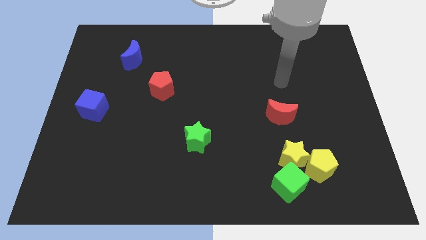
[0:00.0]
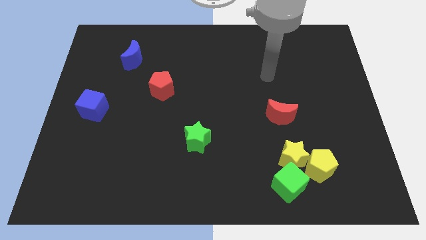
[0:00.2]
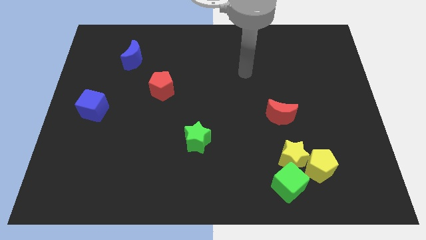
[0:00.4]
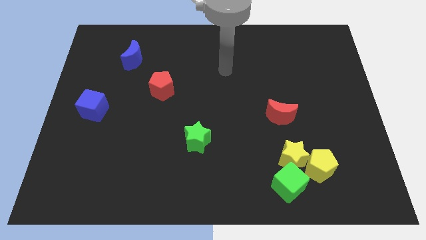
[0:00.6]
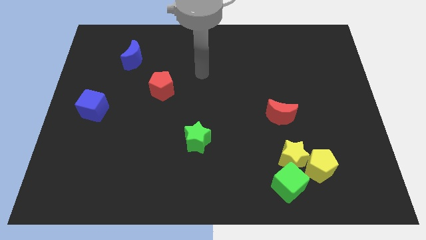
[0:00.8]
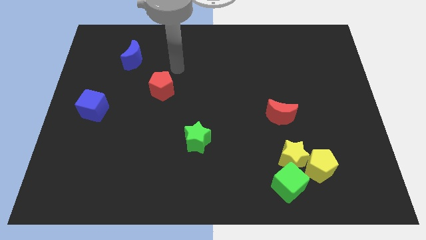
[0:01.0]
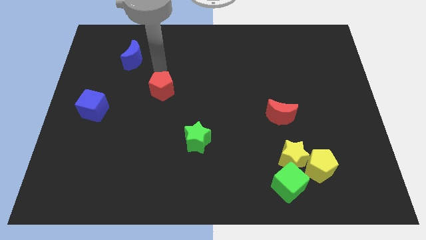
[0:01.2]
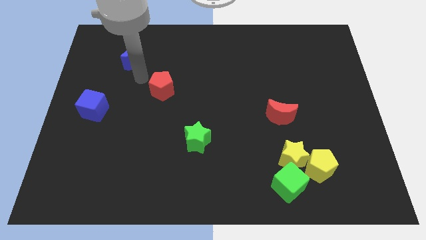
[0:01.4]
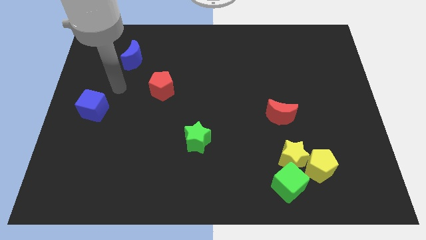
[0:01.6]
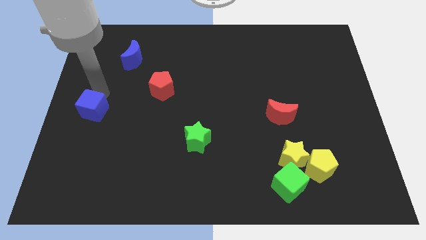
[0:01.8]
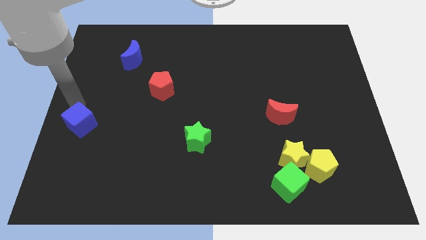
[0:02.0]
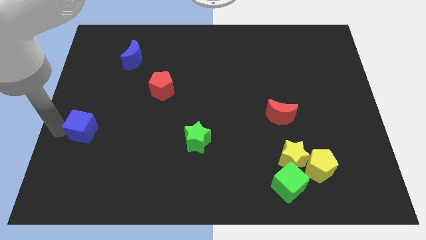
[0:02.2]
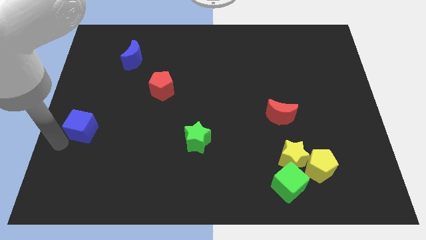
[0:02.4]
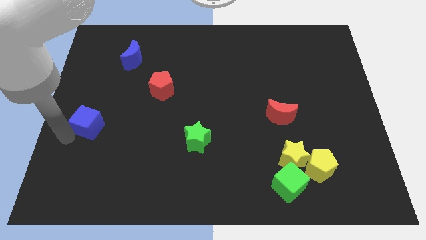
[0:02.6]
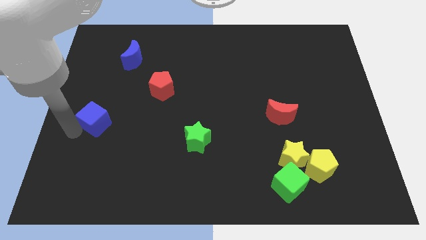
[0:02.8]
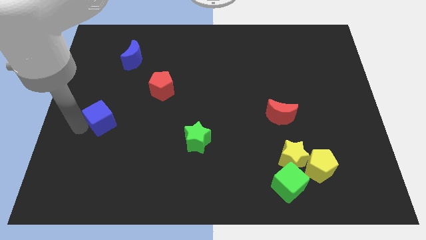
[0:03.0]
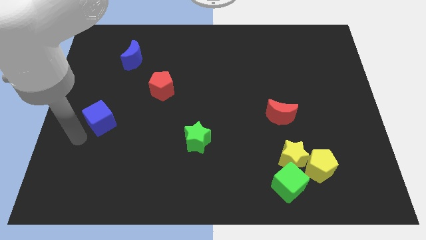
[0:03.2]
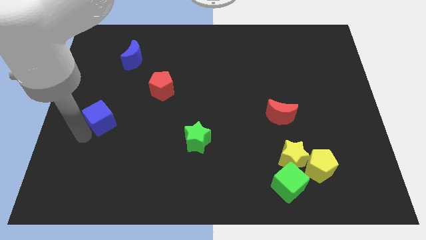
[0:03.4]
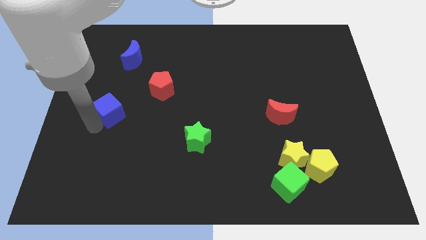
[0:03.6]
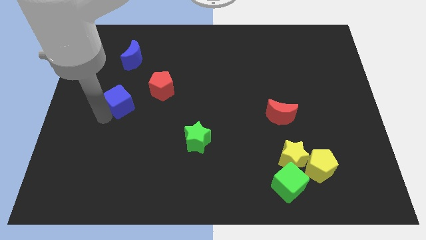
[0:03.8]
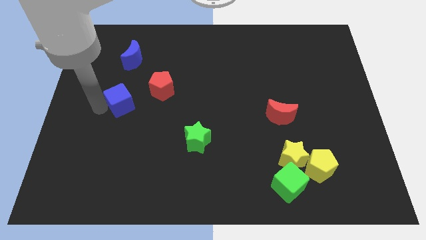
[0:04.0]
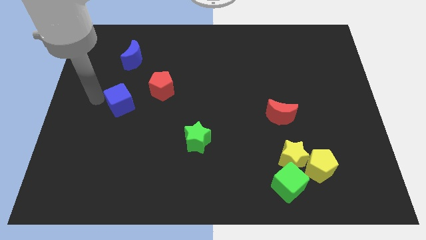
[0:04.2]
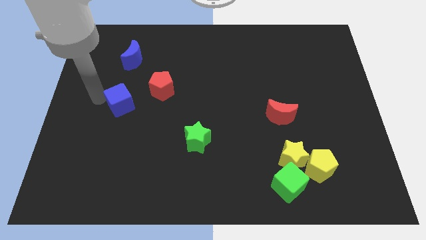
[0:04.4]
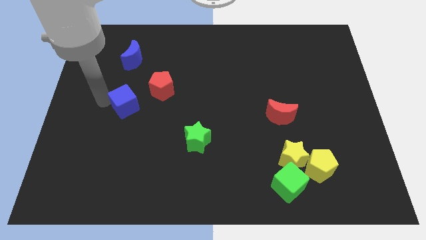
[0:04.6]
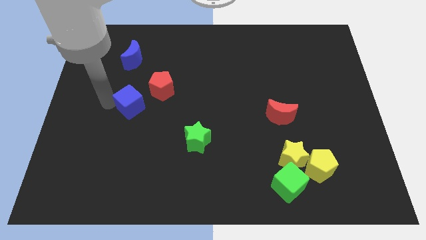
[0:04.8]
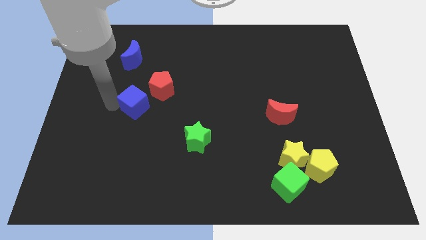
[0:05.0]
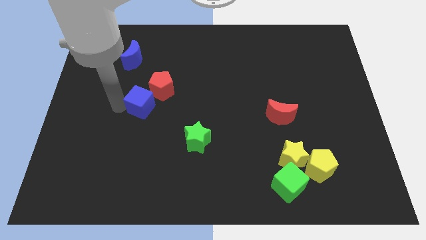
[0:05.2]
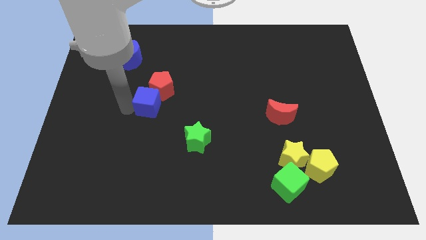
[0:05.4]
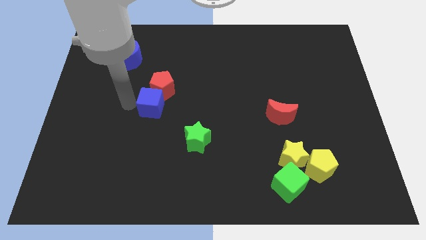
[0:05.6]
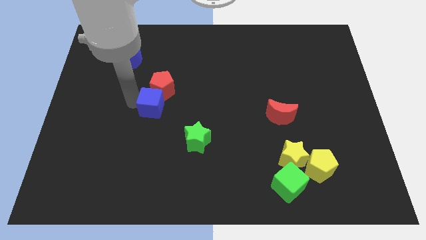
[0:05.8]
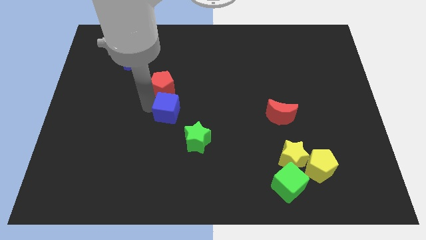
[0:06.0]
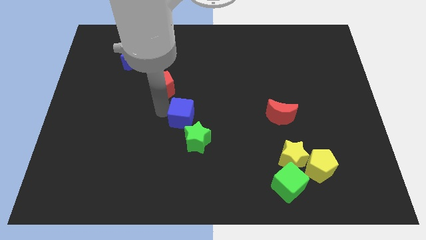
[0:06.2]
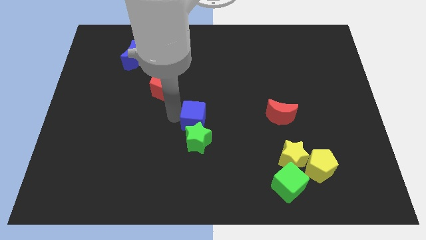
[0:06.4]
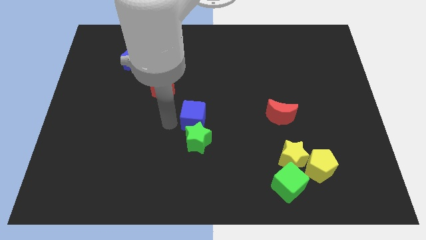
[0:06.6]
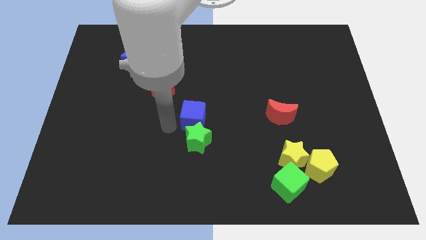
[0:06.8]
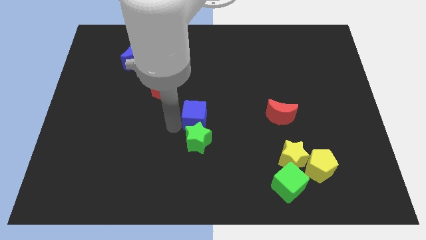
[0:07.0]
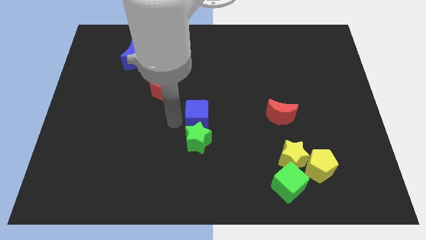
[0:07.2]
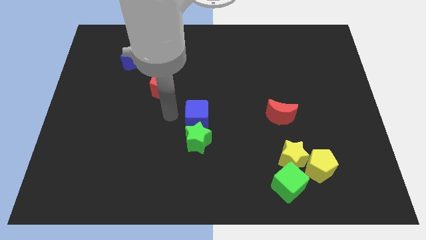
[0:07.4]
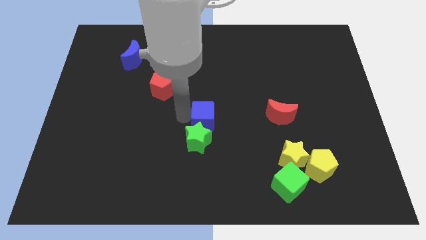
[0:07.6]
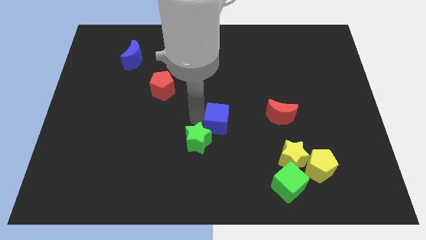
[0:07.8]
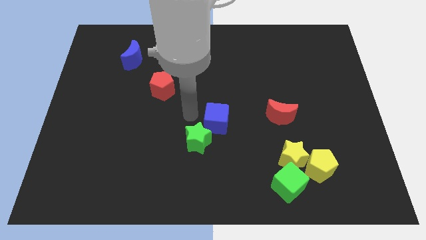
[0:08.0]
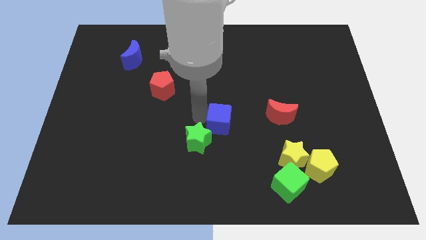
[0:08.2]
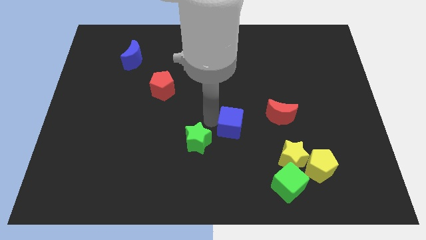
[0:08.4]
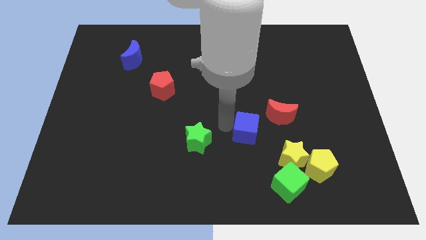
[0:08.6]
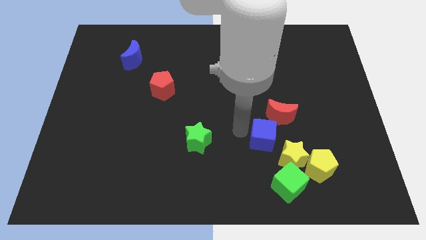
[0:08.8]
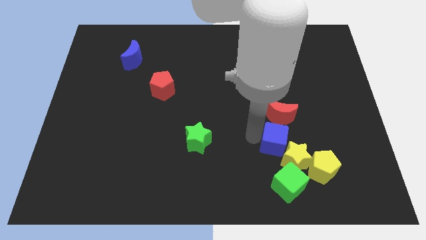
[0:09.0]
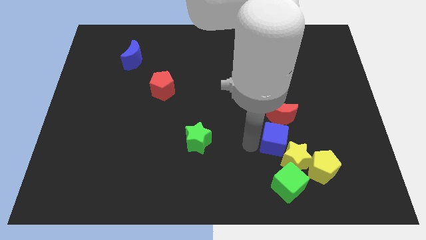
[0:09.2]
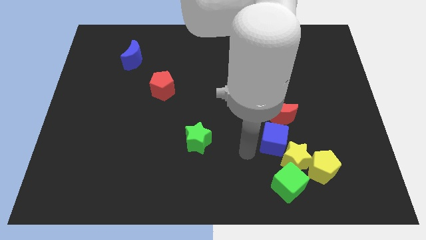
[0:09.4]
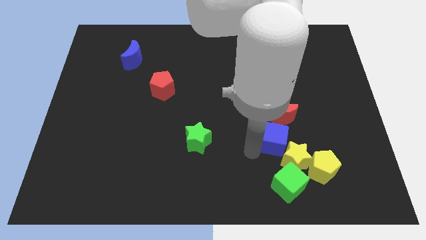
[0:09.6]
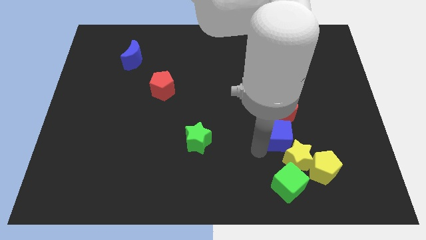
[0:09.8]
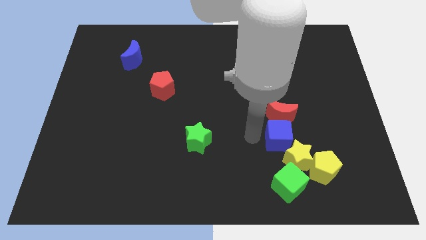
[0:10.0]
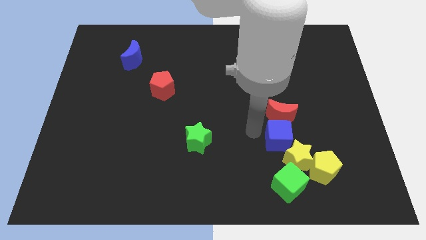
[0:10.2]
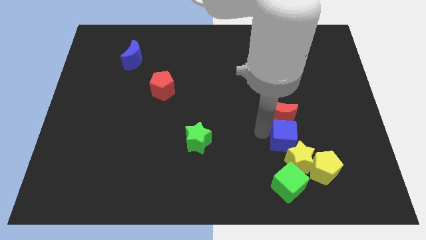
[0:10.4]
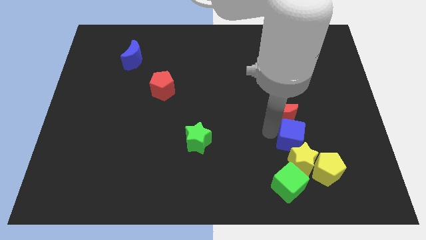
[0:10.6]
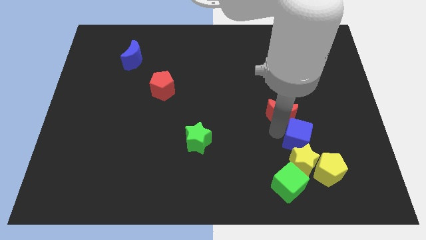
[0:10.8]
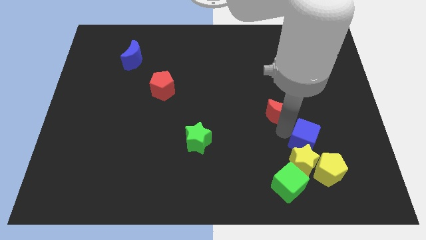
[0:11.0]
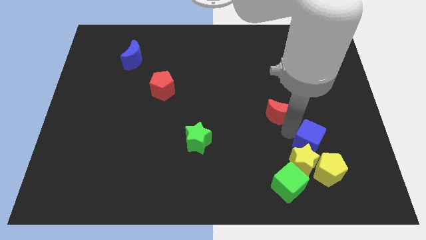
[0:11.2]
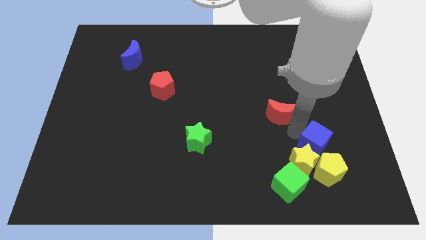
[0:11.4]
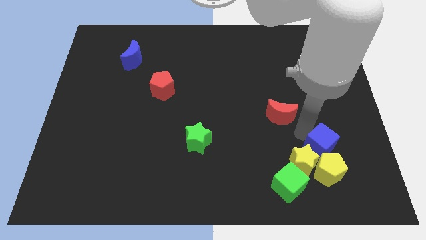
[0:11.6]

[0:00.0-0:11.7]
slide the blue cube next to the yellow pentagon

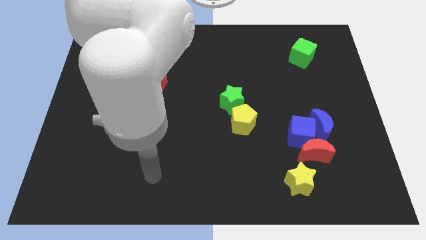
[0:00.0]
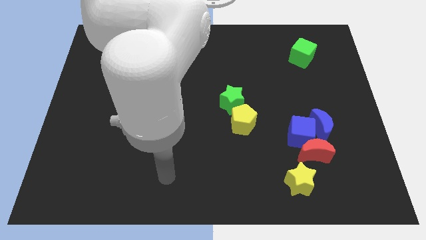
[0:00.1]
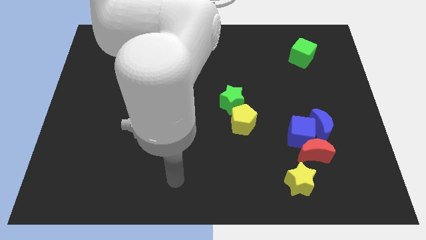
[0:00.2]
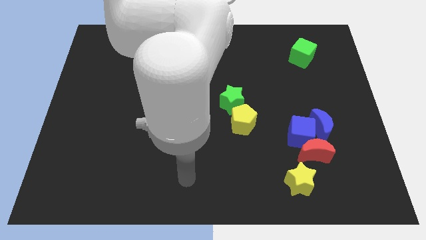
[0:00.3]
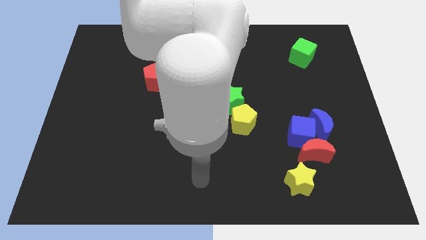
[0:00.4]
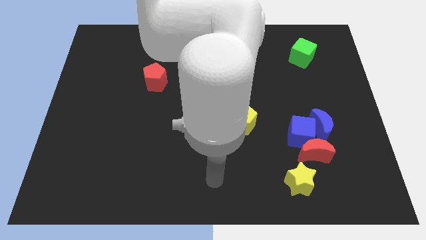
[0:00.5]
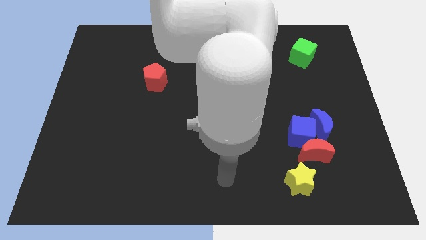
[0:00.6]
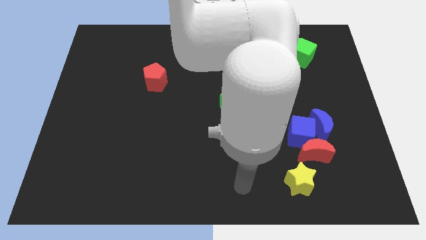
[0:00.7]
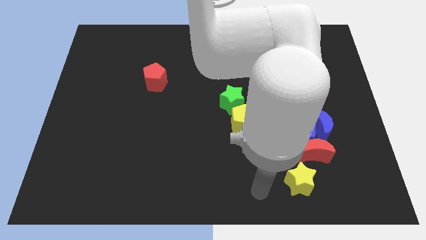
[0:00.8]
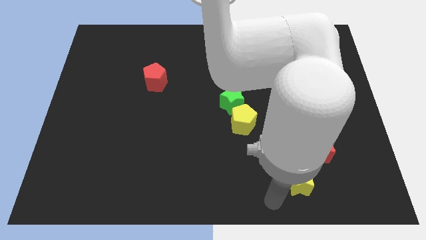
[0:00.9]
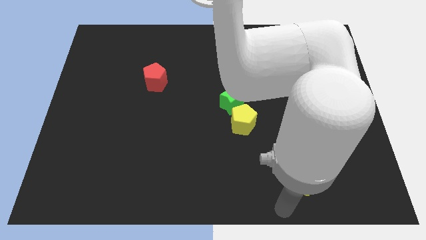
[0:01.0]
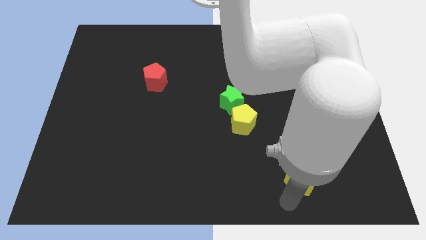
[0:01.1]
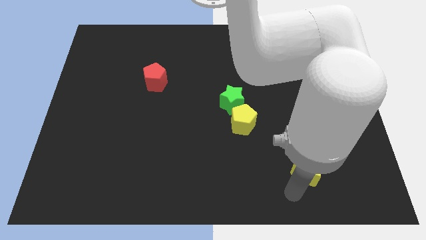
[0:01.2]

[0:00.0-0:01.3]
push the yellow star next to the red moon
